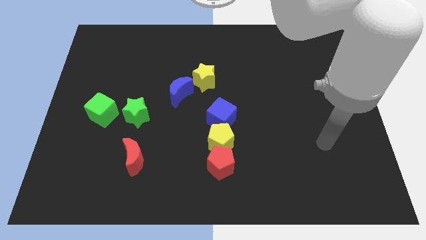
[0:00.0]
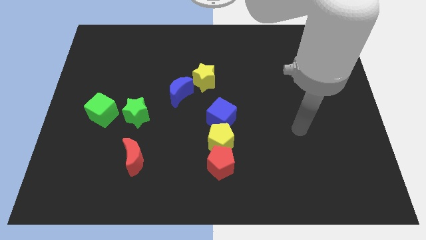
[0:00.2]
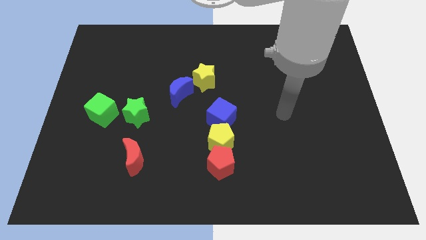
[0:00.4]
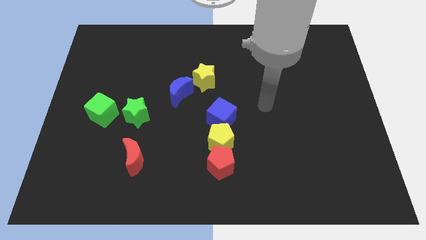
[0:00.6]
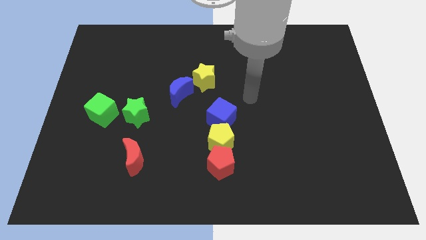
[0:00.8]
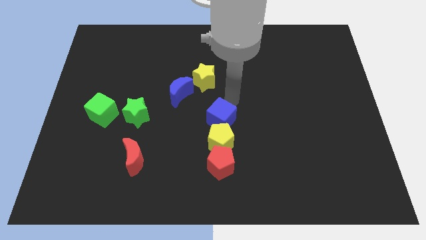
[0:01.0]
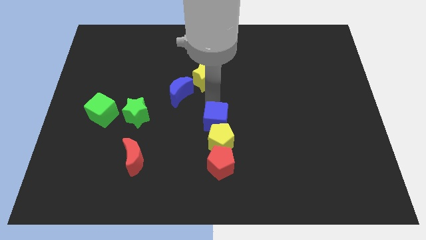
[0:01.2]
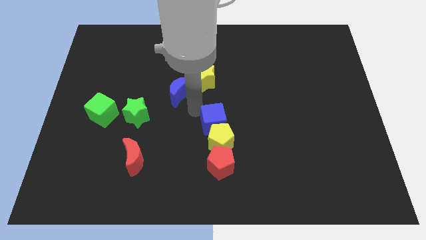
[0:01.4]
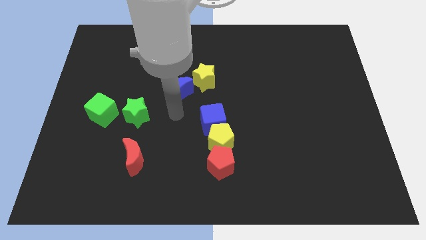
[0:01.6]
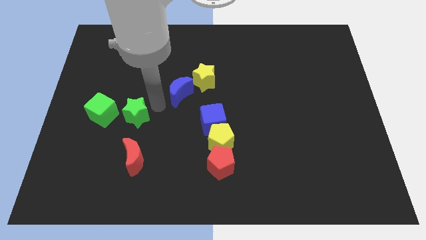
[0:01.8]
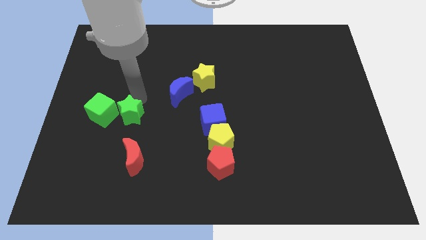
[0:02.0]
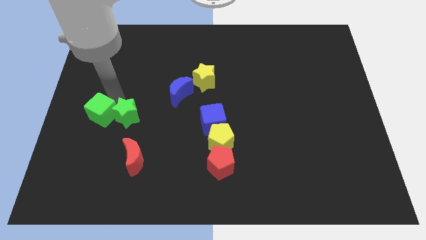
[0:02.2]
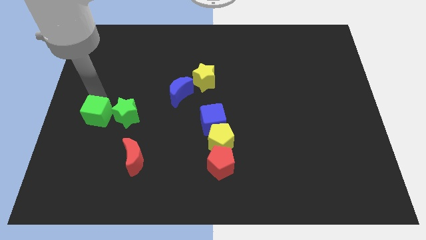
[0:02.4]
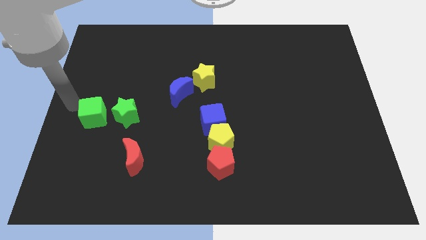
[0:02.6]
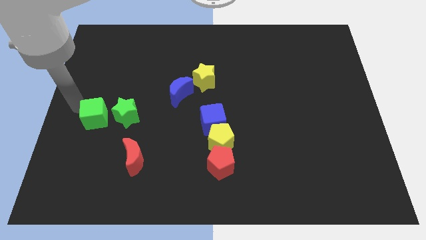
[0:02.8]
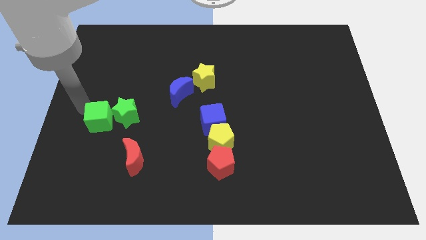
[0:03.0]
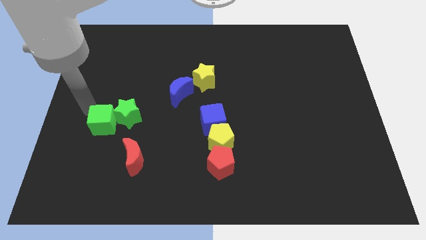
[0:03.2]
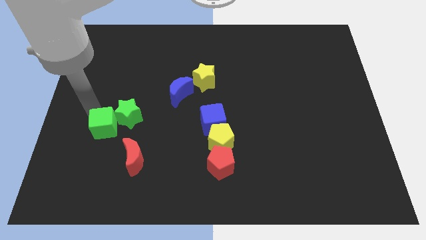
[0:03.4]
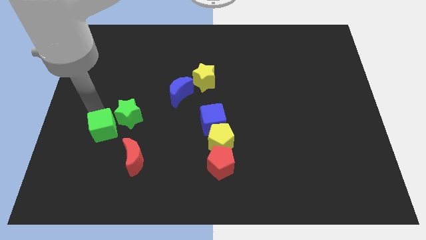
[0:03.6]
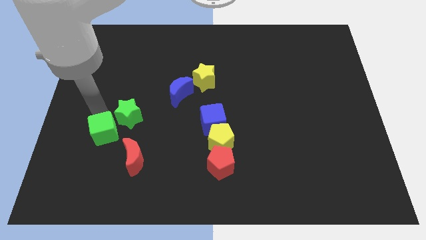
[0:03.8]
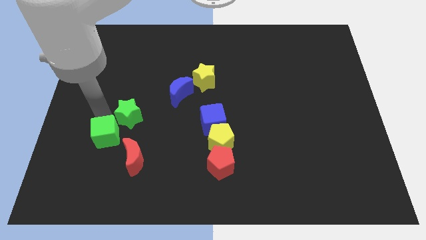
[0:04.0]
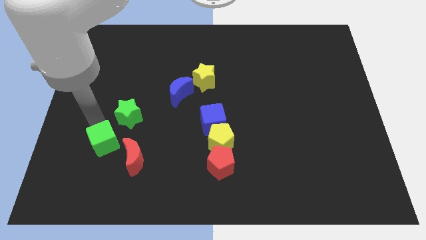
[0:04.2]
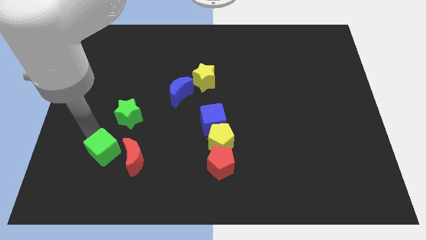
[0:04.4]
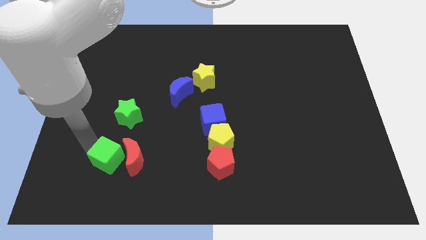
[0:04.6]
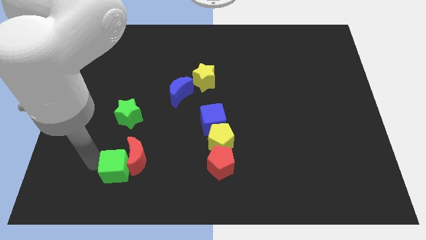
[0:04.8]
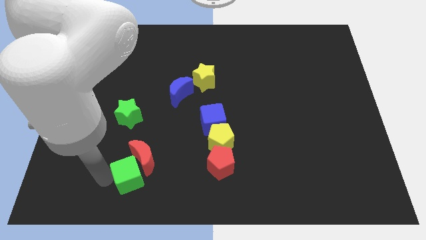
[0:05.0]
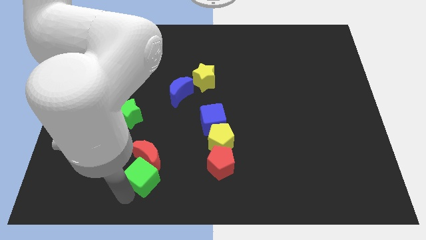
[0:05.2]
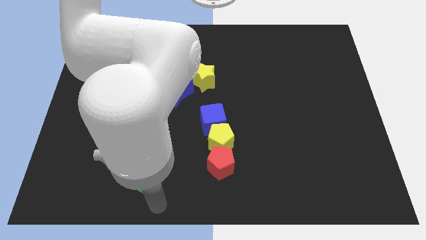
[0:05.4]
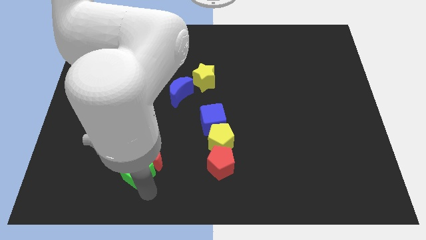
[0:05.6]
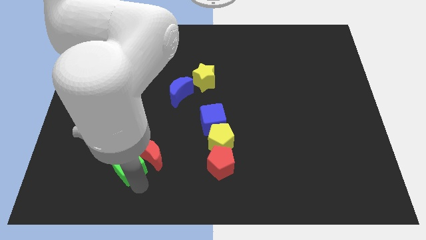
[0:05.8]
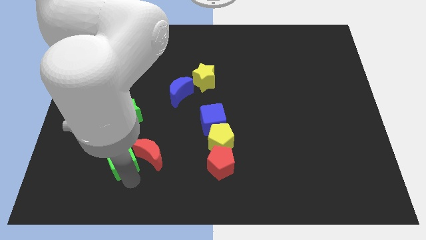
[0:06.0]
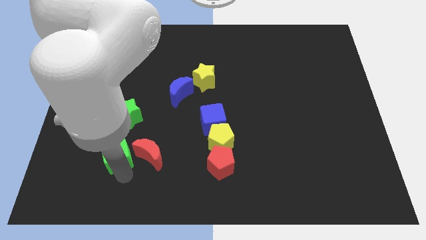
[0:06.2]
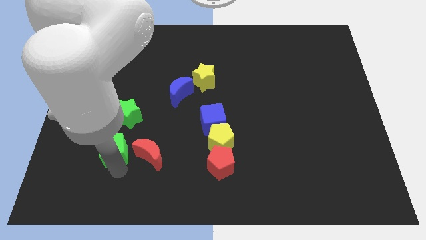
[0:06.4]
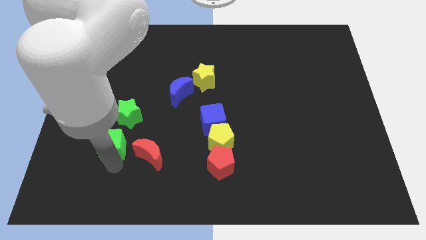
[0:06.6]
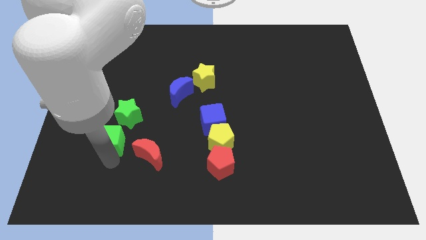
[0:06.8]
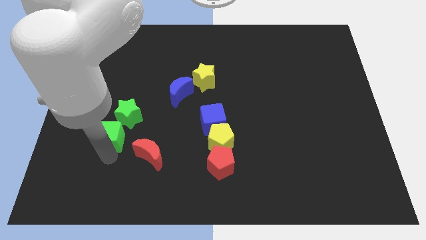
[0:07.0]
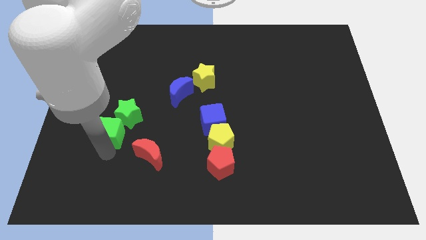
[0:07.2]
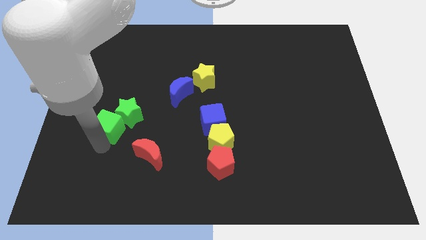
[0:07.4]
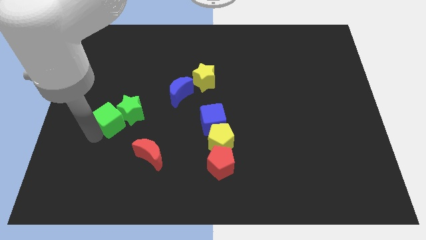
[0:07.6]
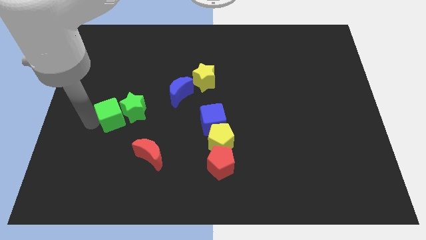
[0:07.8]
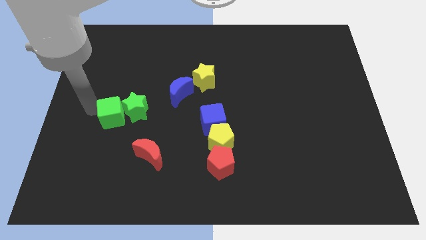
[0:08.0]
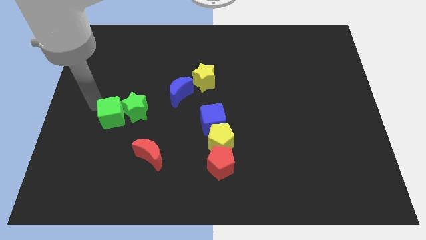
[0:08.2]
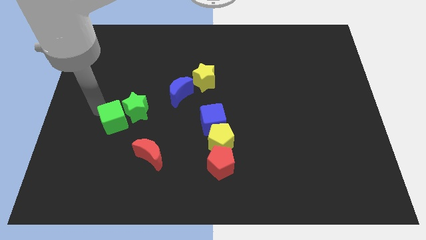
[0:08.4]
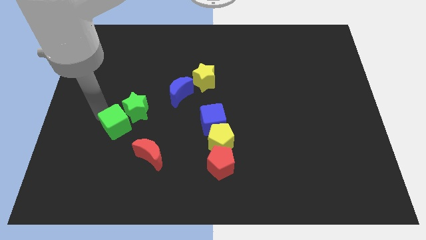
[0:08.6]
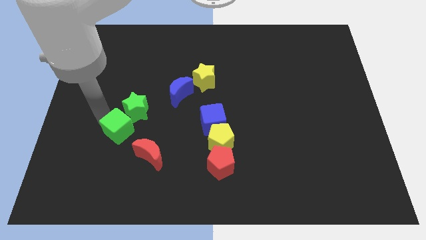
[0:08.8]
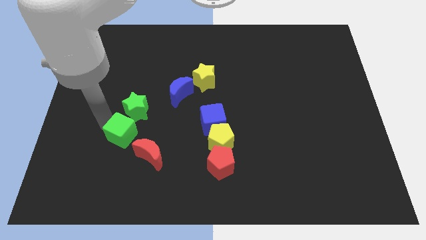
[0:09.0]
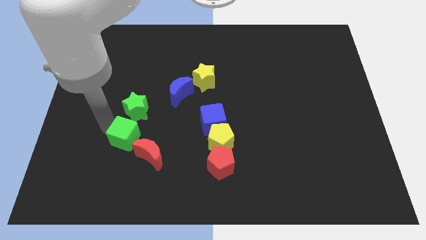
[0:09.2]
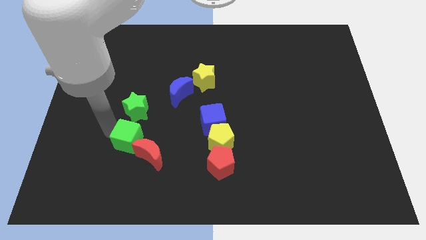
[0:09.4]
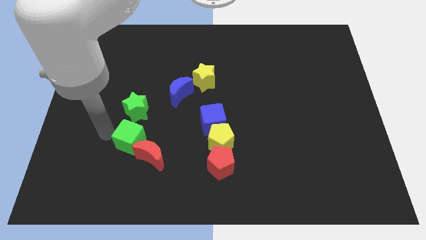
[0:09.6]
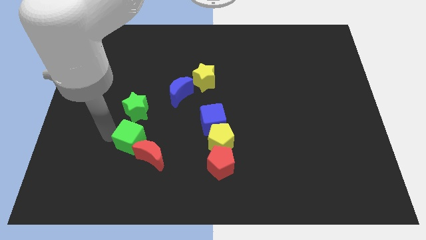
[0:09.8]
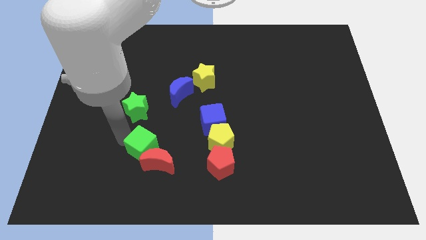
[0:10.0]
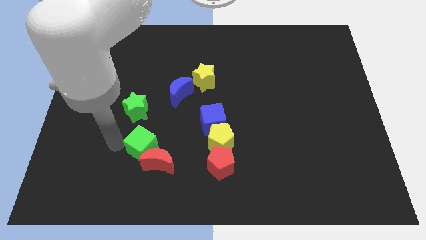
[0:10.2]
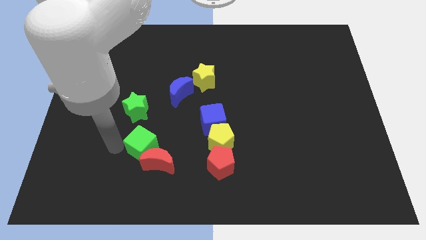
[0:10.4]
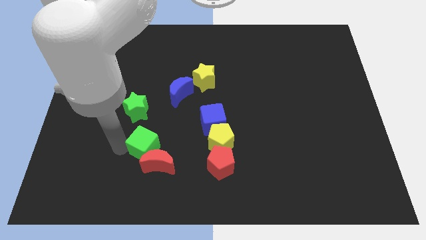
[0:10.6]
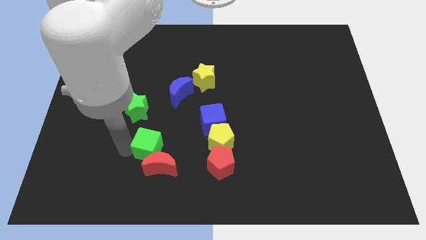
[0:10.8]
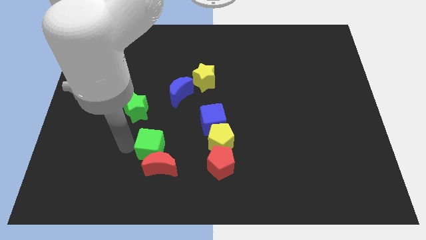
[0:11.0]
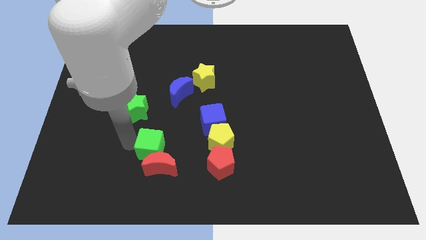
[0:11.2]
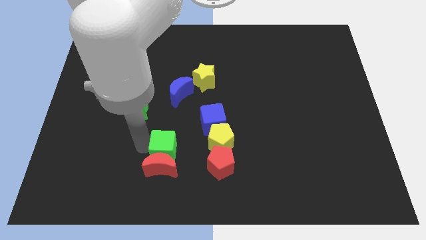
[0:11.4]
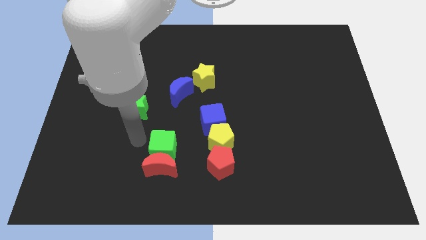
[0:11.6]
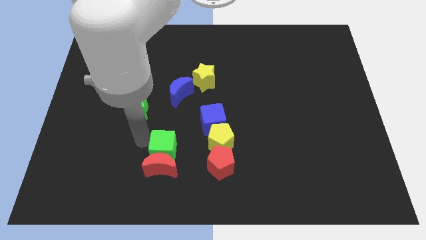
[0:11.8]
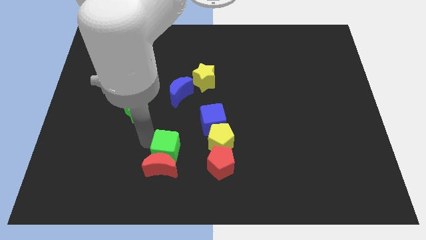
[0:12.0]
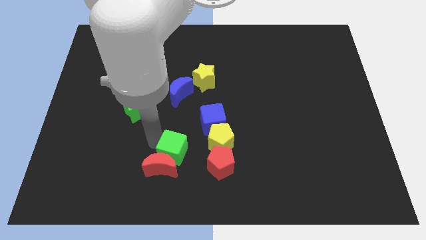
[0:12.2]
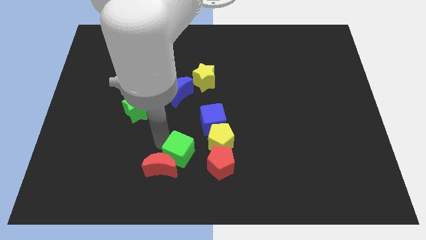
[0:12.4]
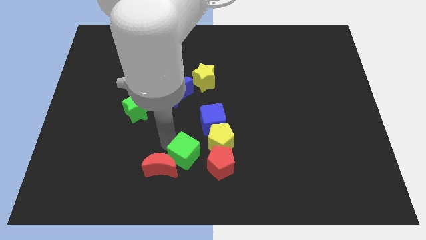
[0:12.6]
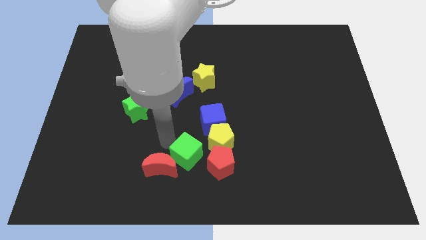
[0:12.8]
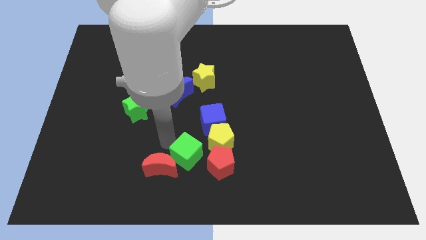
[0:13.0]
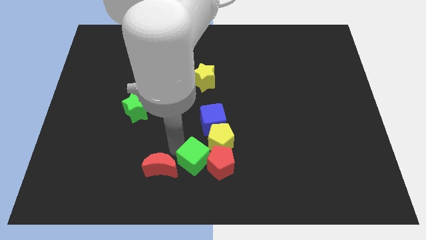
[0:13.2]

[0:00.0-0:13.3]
put the green cube next to the red pentagon
